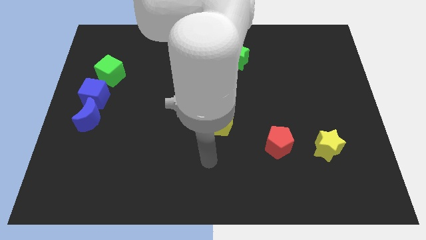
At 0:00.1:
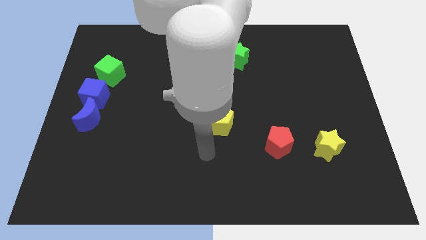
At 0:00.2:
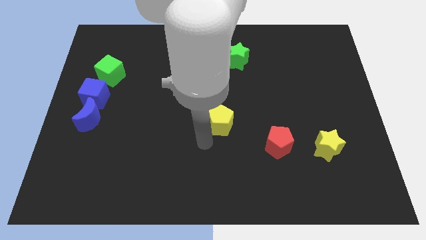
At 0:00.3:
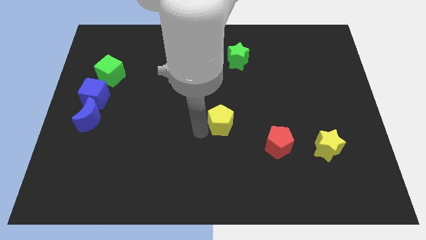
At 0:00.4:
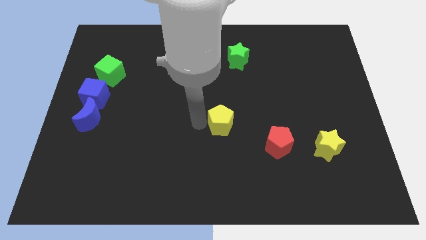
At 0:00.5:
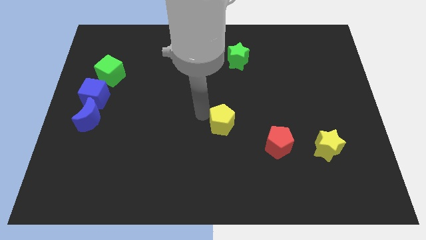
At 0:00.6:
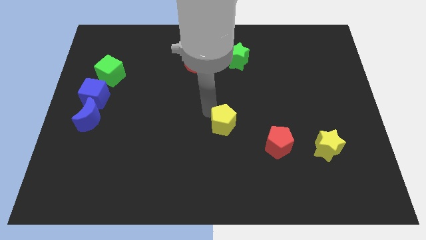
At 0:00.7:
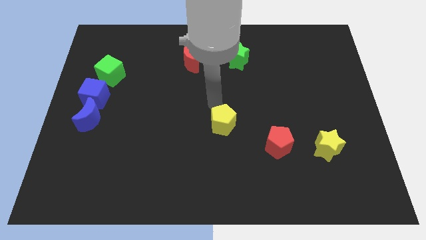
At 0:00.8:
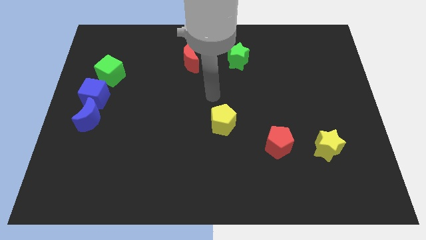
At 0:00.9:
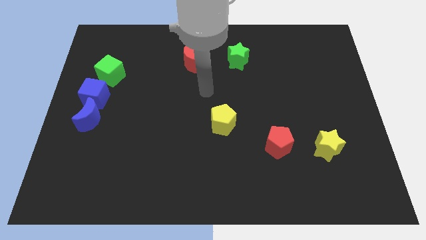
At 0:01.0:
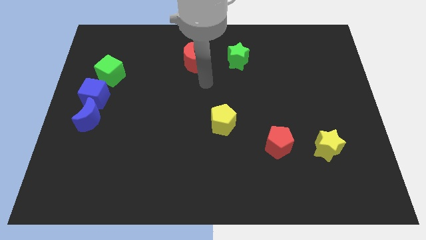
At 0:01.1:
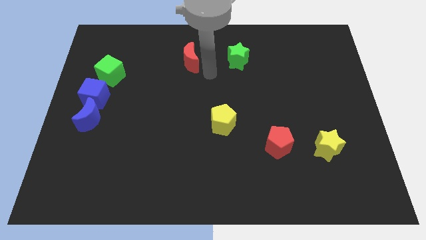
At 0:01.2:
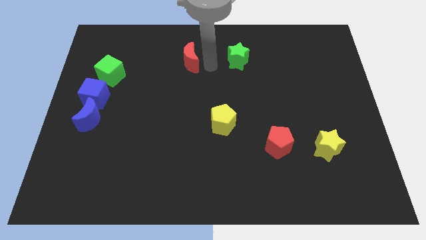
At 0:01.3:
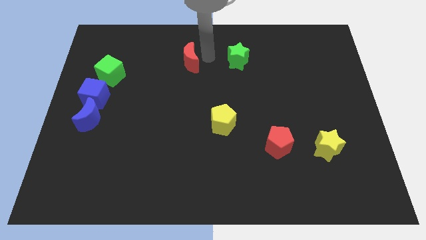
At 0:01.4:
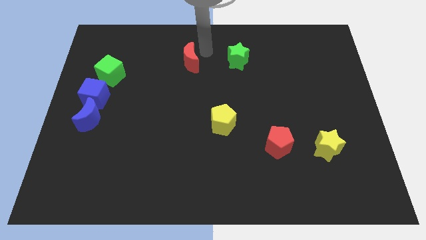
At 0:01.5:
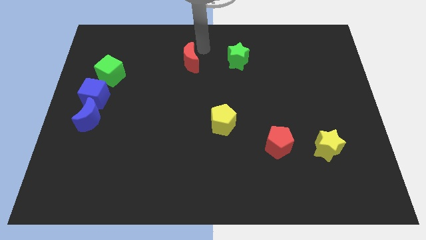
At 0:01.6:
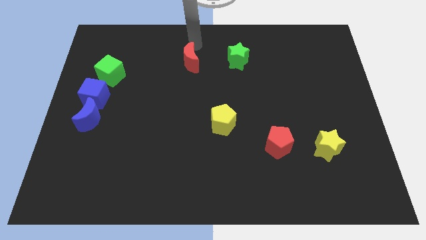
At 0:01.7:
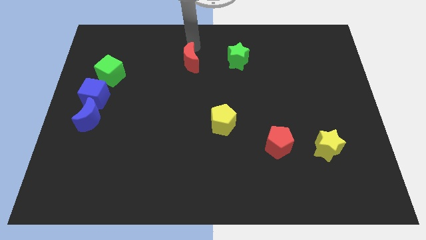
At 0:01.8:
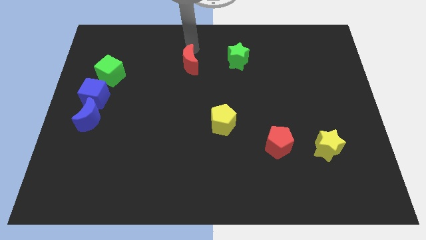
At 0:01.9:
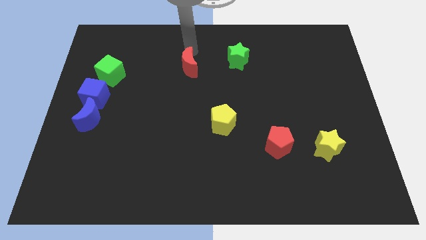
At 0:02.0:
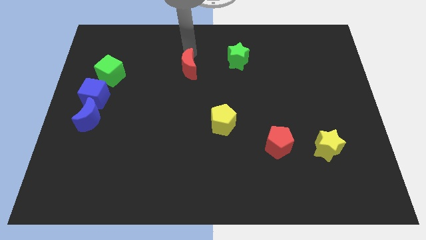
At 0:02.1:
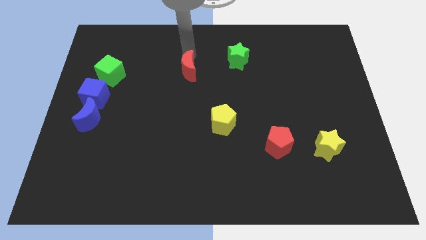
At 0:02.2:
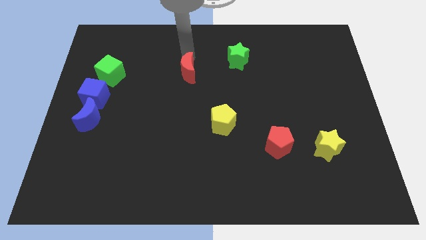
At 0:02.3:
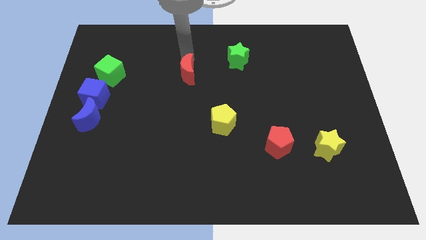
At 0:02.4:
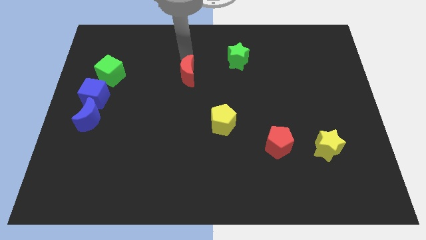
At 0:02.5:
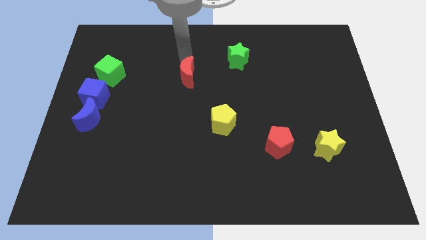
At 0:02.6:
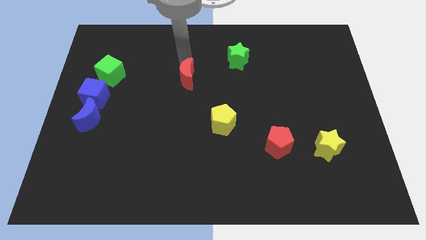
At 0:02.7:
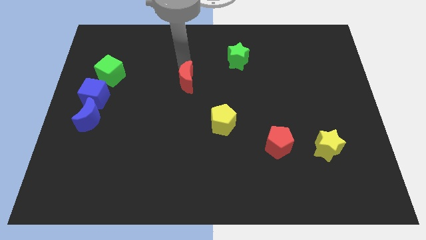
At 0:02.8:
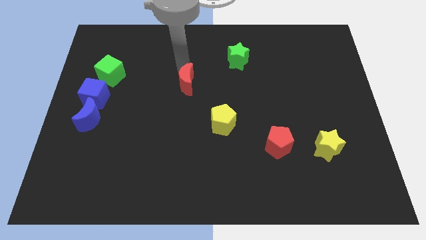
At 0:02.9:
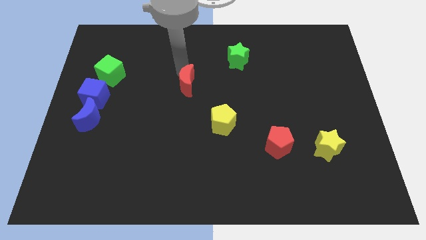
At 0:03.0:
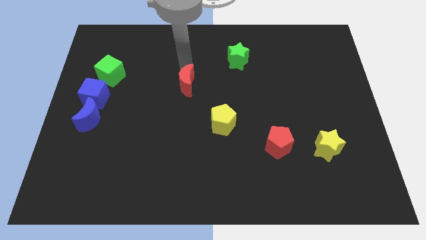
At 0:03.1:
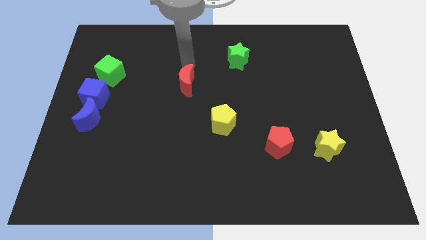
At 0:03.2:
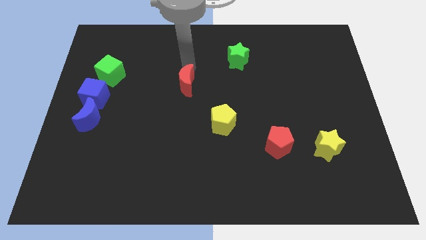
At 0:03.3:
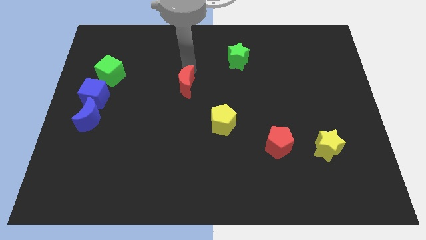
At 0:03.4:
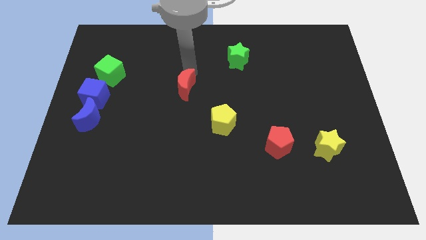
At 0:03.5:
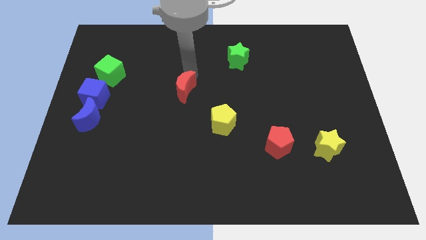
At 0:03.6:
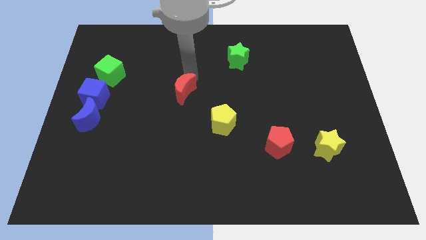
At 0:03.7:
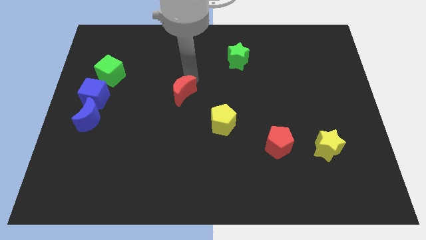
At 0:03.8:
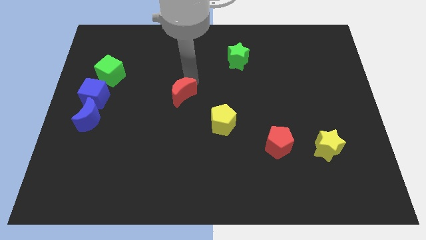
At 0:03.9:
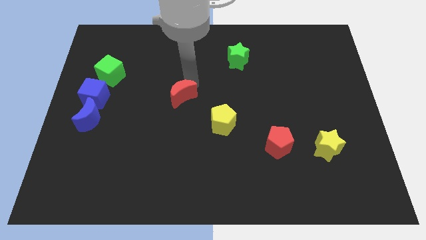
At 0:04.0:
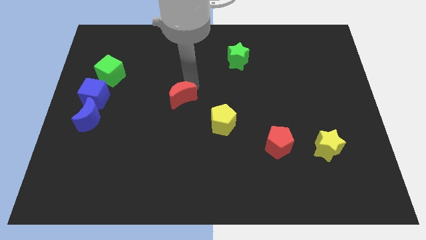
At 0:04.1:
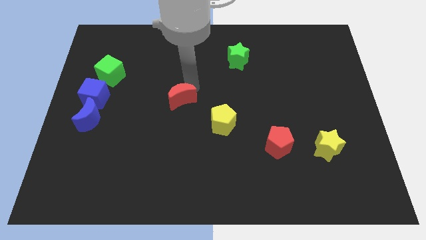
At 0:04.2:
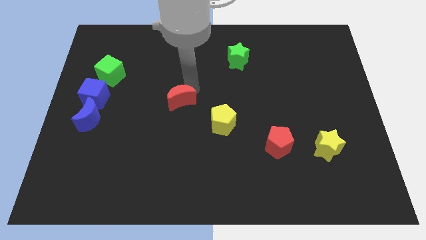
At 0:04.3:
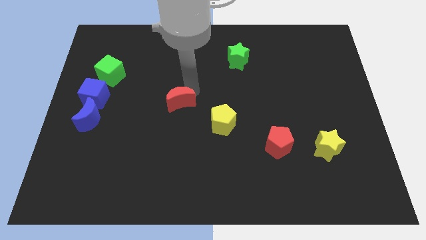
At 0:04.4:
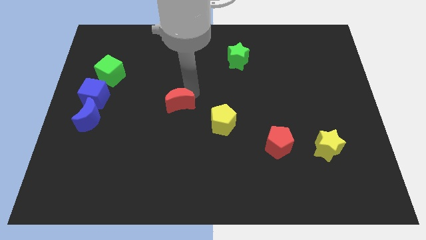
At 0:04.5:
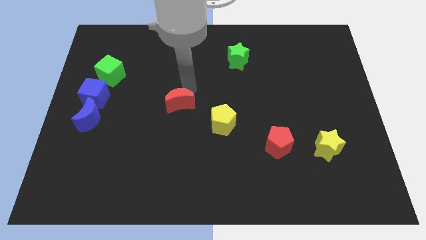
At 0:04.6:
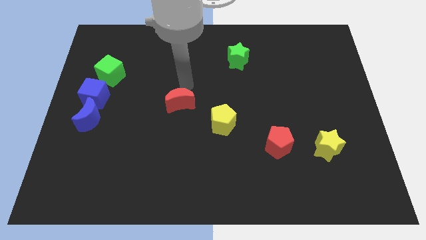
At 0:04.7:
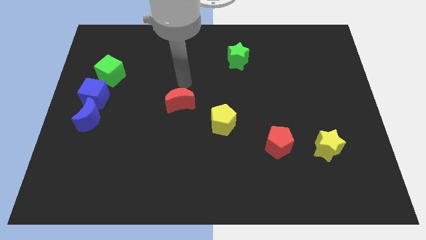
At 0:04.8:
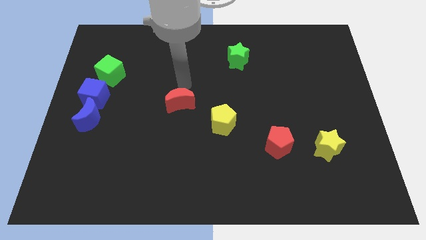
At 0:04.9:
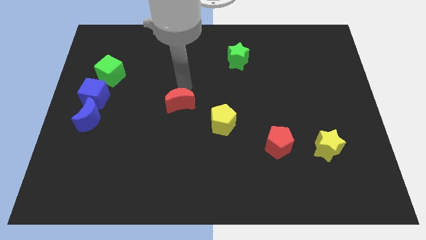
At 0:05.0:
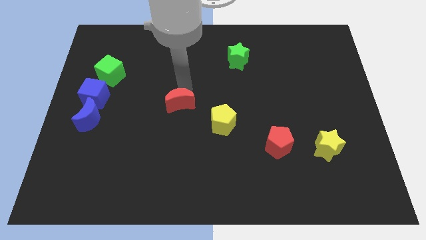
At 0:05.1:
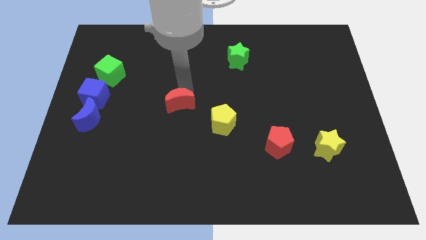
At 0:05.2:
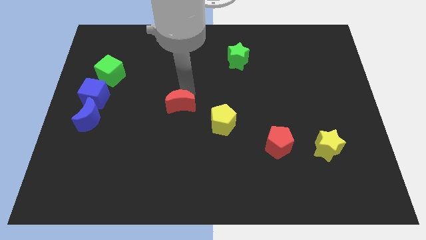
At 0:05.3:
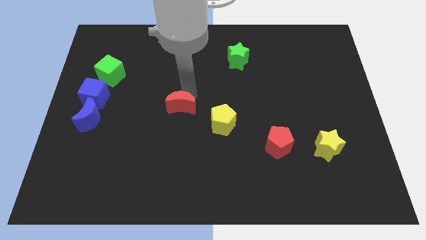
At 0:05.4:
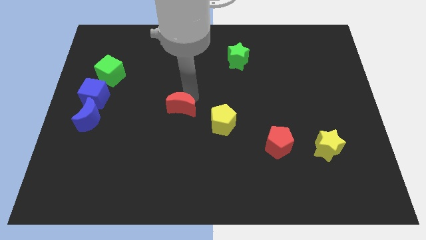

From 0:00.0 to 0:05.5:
put the red moon left of the yellow pentagon

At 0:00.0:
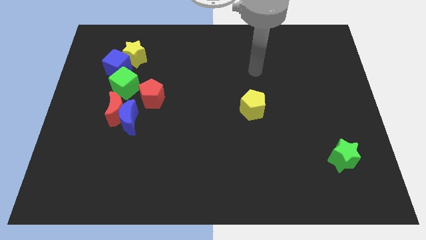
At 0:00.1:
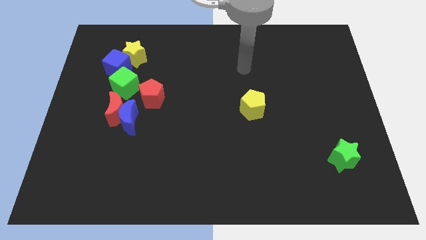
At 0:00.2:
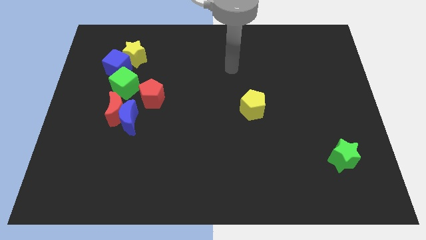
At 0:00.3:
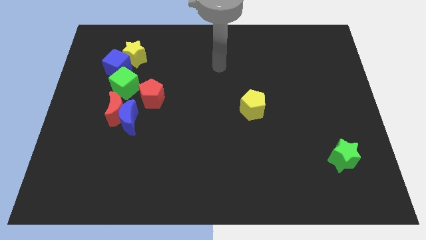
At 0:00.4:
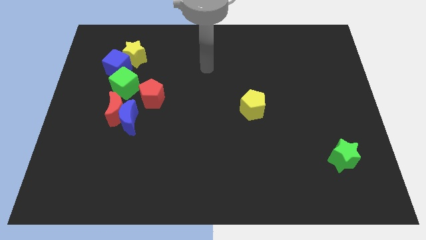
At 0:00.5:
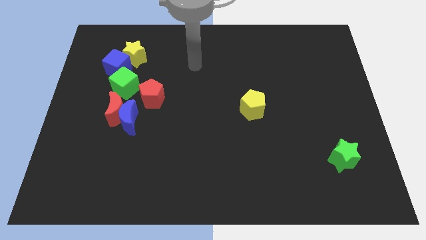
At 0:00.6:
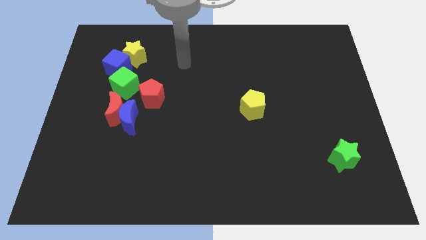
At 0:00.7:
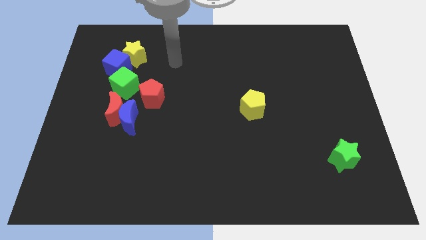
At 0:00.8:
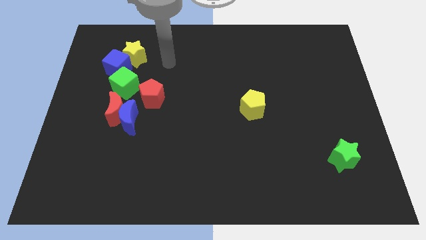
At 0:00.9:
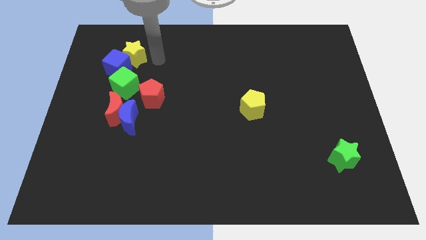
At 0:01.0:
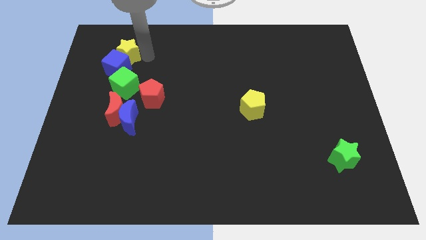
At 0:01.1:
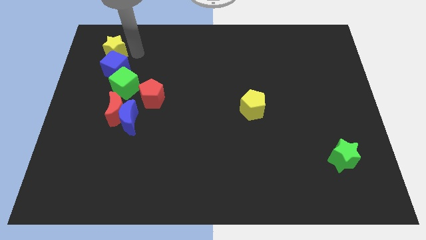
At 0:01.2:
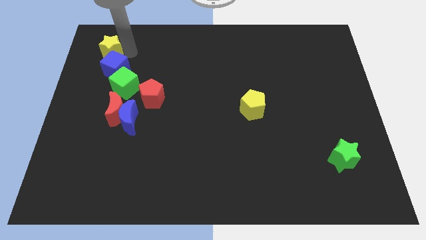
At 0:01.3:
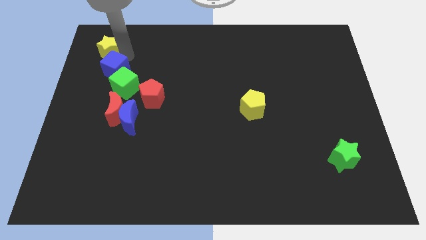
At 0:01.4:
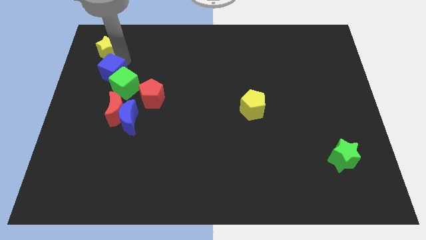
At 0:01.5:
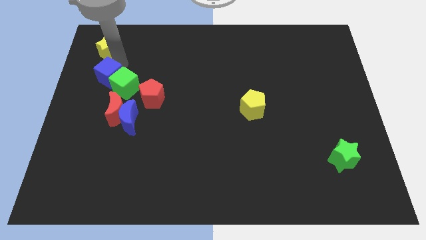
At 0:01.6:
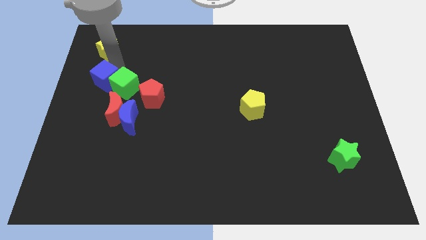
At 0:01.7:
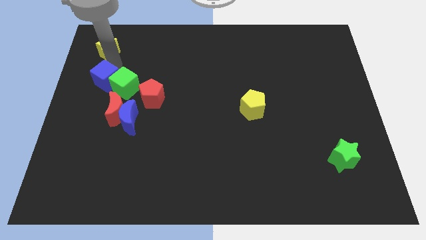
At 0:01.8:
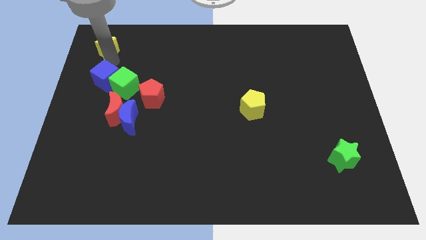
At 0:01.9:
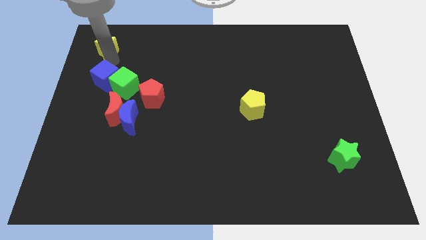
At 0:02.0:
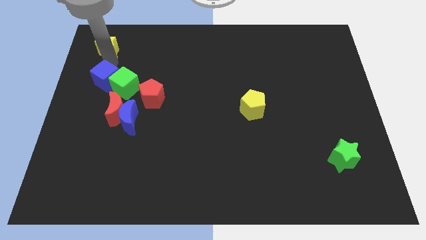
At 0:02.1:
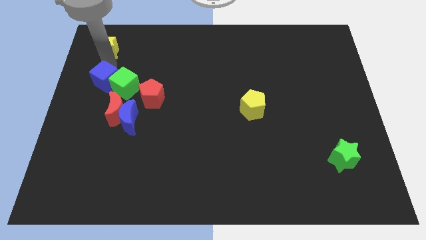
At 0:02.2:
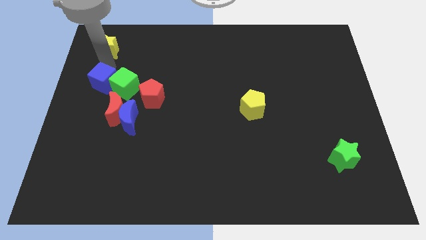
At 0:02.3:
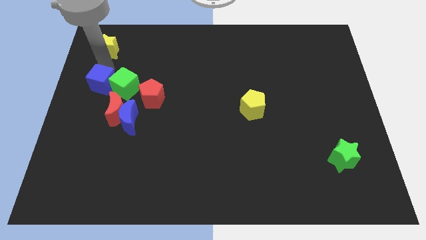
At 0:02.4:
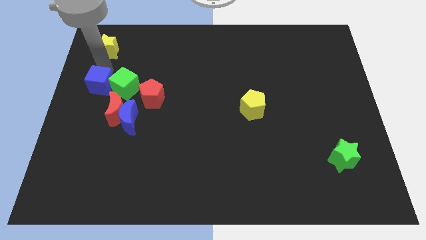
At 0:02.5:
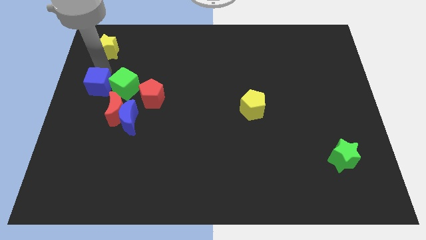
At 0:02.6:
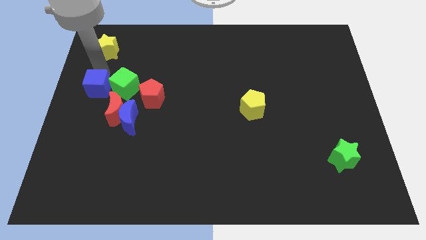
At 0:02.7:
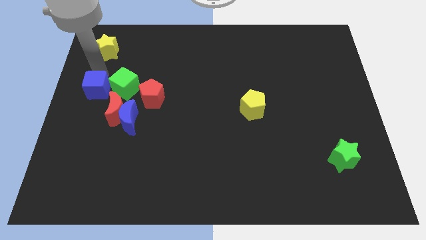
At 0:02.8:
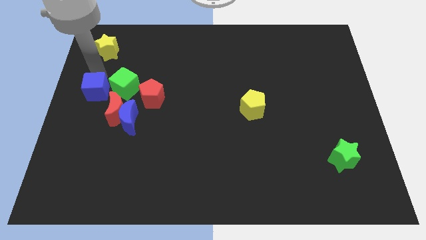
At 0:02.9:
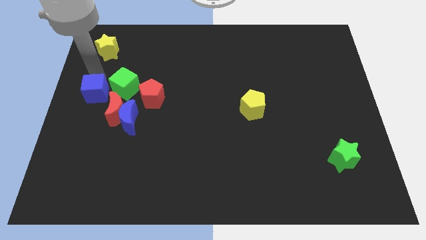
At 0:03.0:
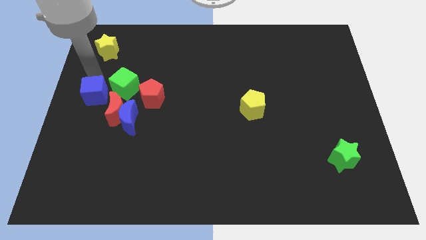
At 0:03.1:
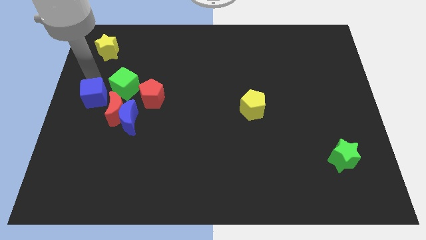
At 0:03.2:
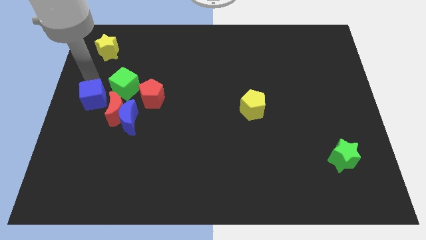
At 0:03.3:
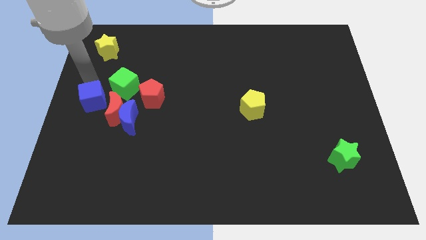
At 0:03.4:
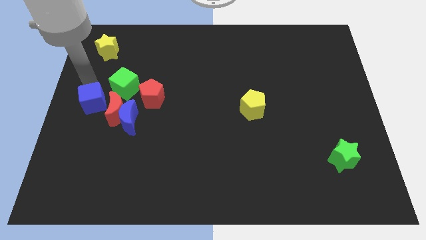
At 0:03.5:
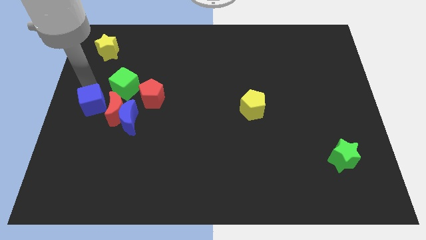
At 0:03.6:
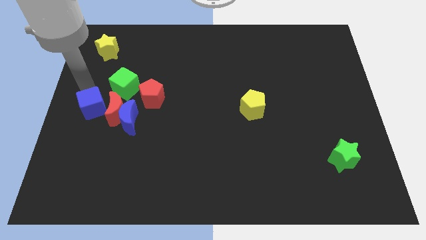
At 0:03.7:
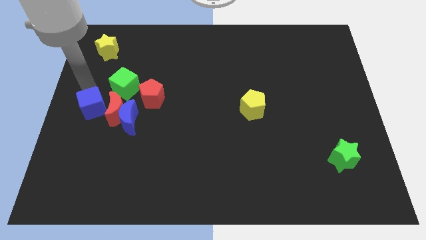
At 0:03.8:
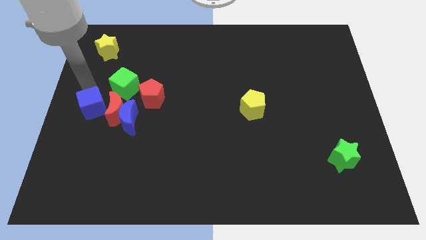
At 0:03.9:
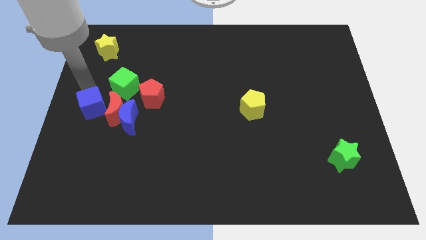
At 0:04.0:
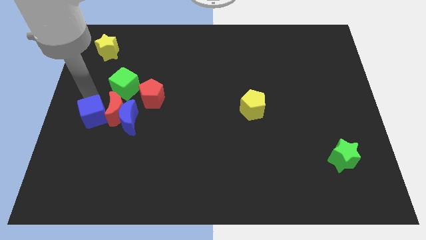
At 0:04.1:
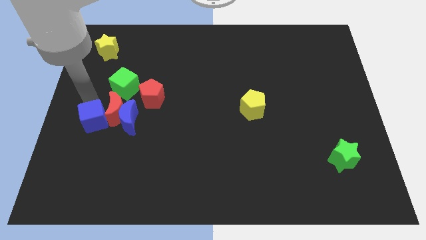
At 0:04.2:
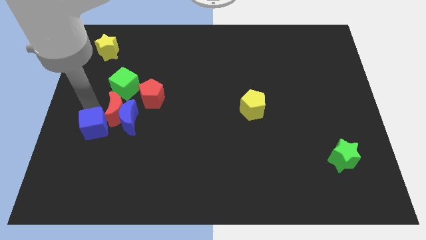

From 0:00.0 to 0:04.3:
put the blue cube to the bottom left side of the blue moon
